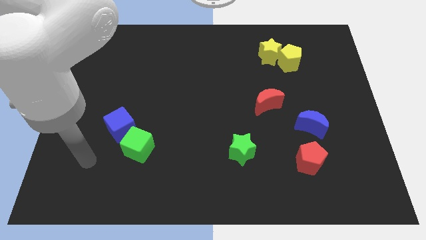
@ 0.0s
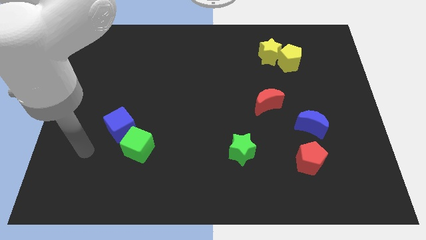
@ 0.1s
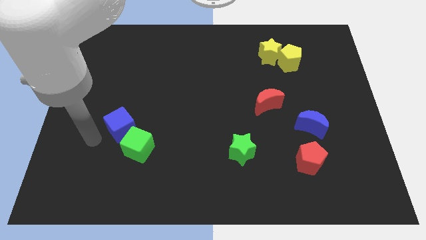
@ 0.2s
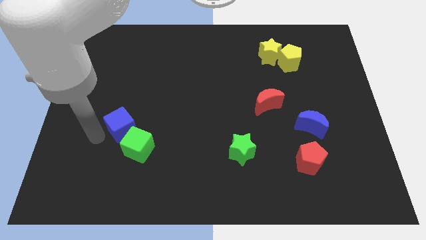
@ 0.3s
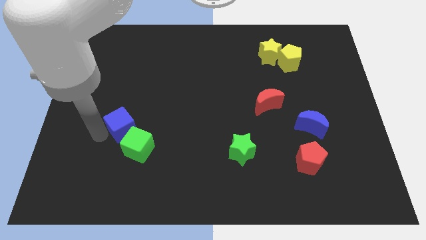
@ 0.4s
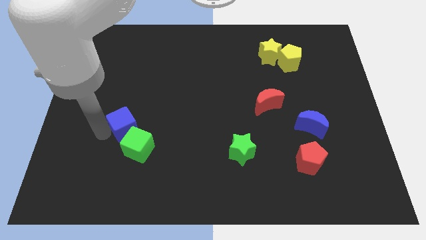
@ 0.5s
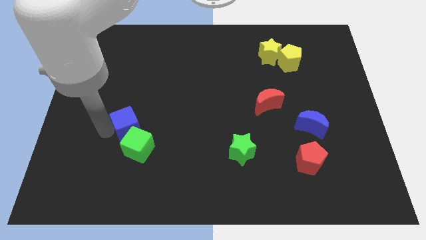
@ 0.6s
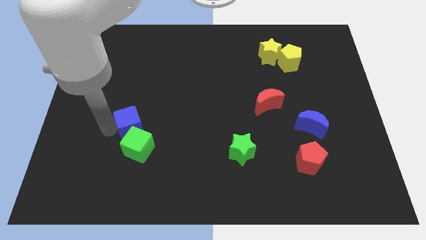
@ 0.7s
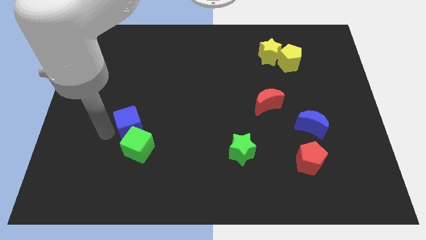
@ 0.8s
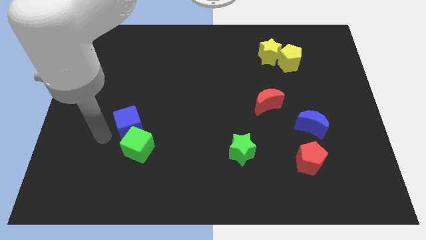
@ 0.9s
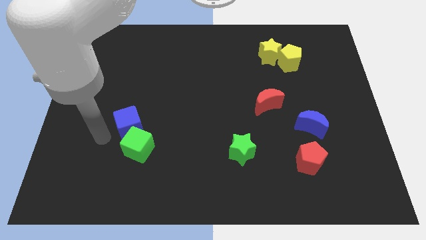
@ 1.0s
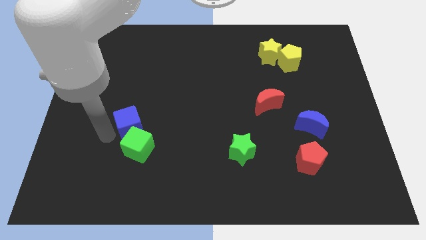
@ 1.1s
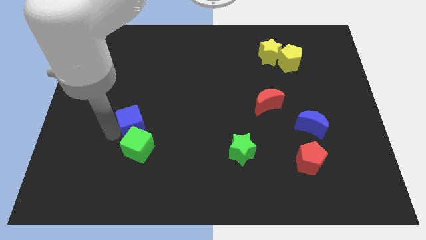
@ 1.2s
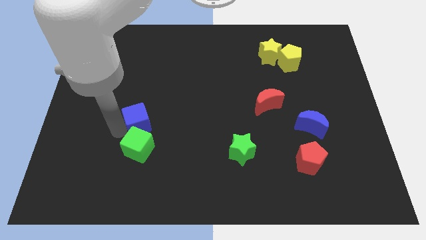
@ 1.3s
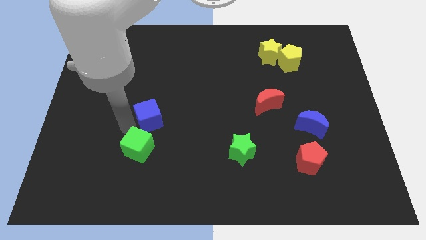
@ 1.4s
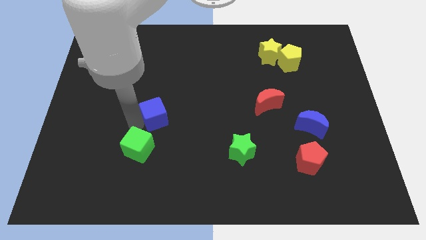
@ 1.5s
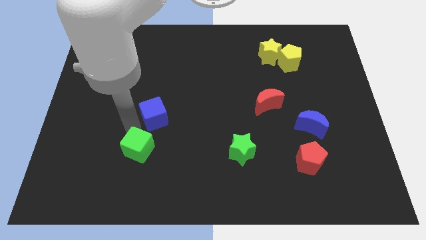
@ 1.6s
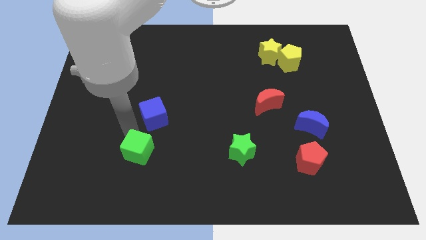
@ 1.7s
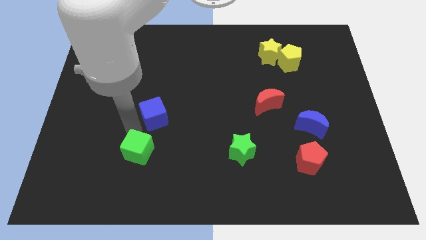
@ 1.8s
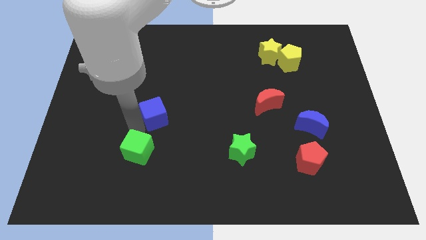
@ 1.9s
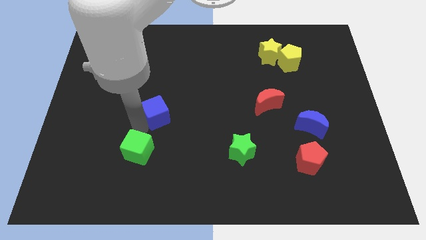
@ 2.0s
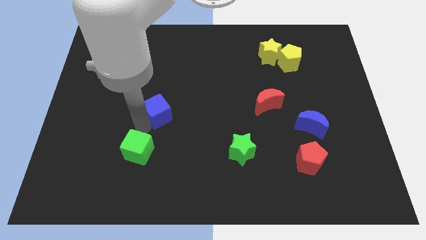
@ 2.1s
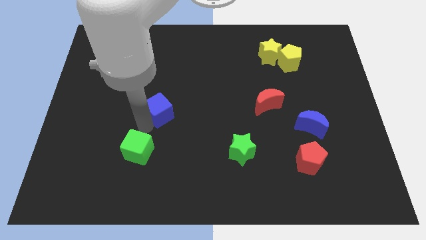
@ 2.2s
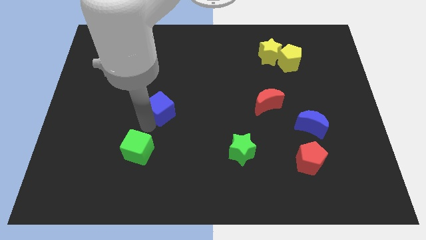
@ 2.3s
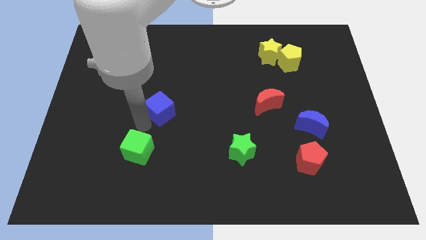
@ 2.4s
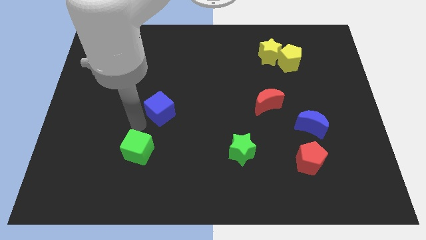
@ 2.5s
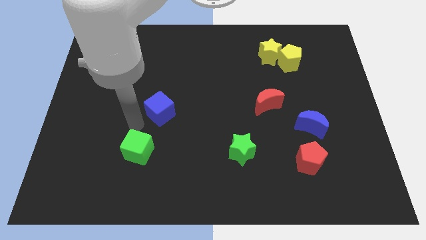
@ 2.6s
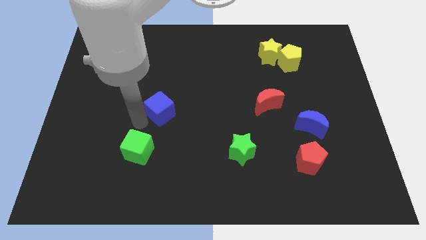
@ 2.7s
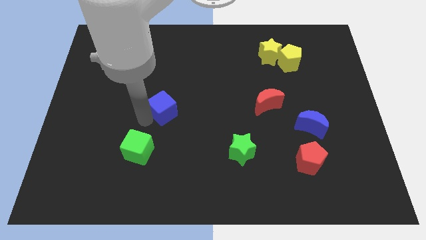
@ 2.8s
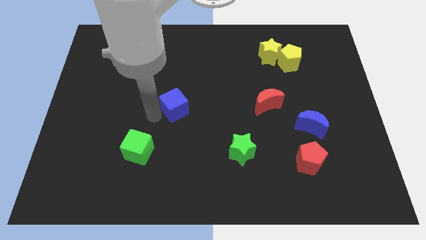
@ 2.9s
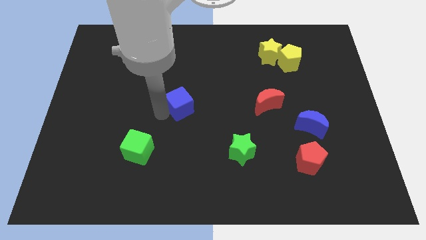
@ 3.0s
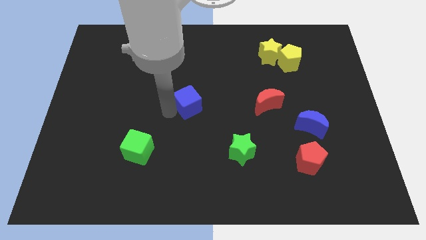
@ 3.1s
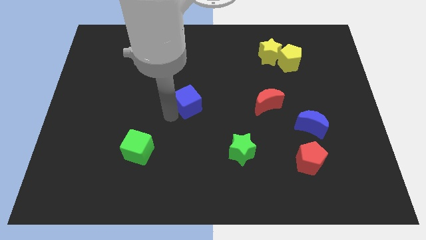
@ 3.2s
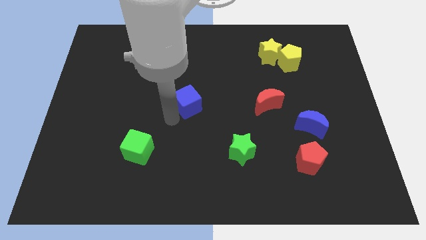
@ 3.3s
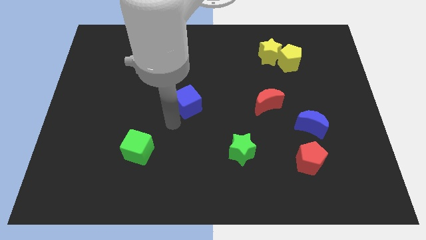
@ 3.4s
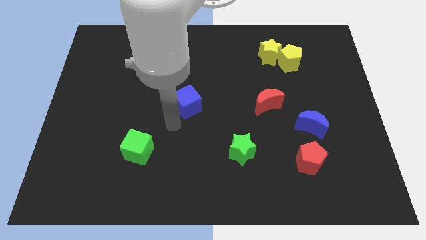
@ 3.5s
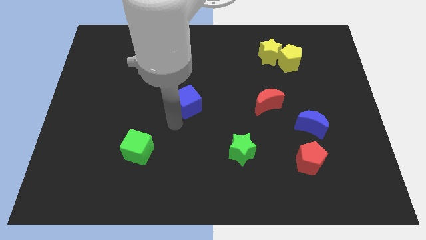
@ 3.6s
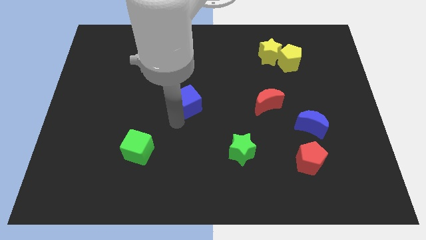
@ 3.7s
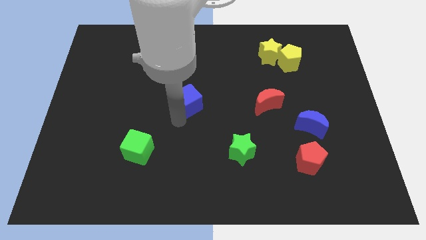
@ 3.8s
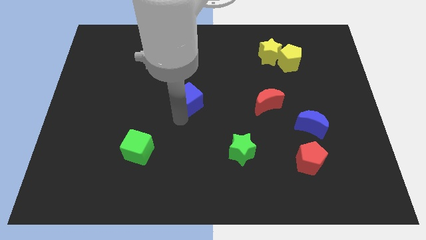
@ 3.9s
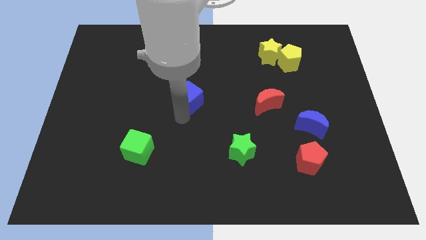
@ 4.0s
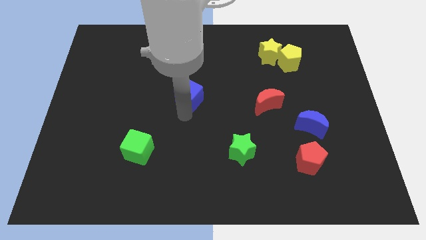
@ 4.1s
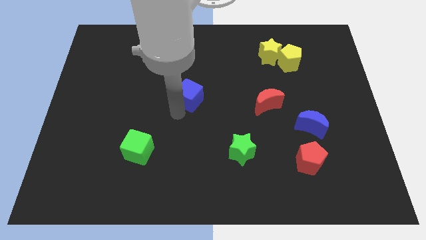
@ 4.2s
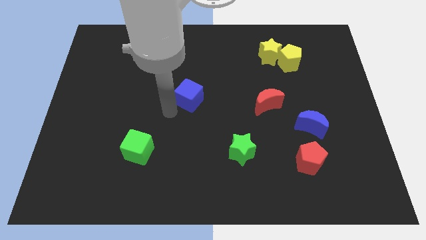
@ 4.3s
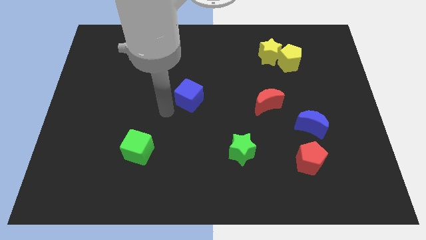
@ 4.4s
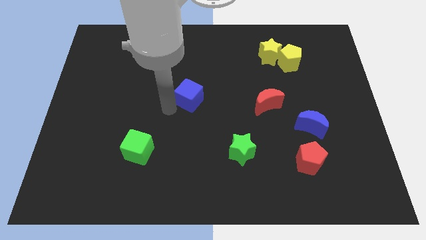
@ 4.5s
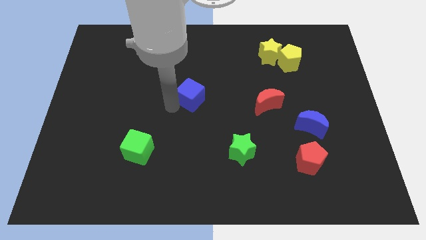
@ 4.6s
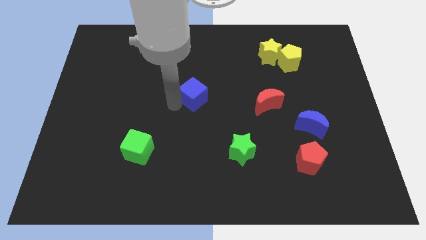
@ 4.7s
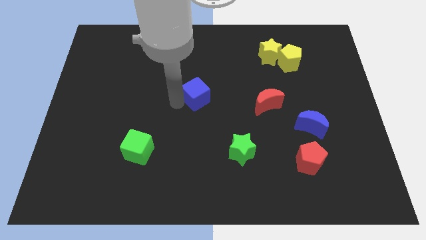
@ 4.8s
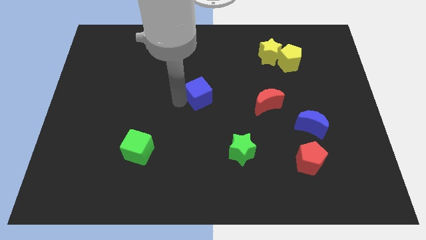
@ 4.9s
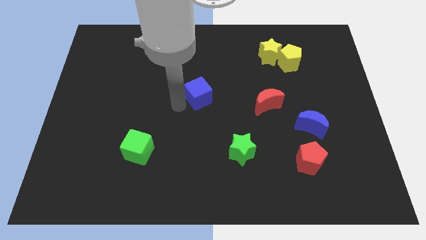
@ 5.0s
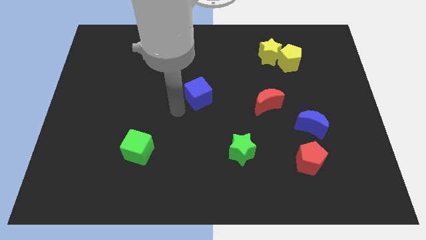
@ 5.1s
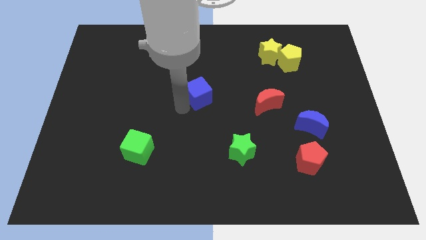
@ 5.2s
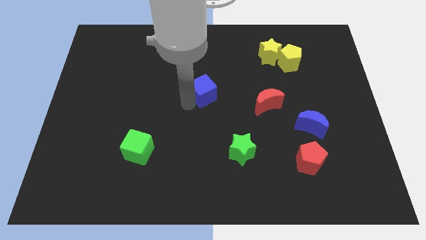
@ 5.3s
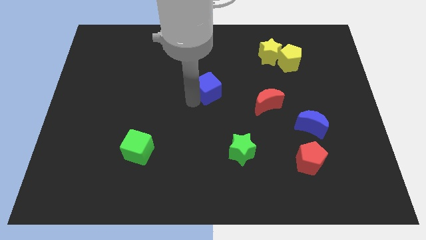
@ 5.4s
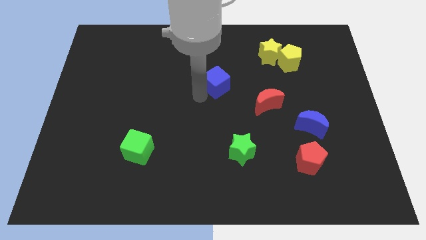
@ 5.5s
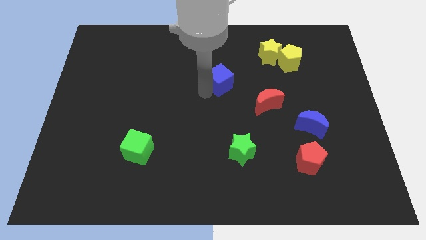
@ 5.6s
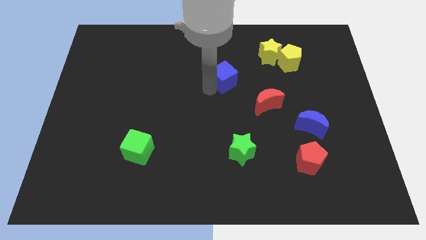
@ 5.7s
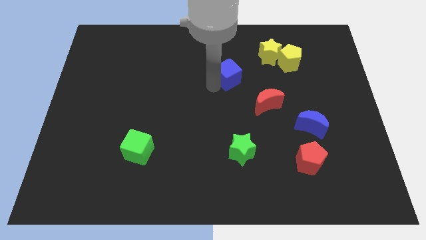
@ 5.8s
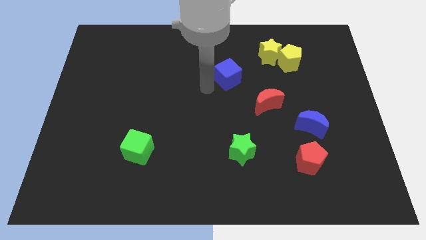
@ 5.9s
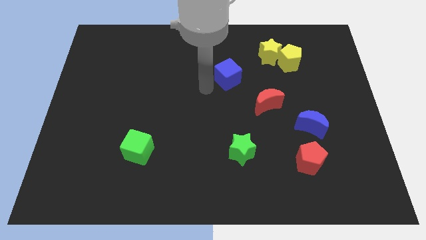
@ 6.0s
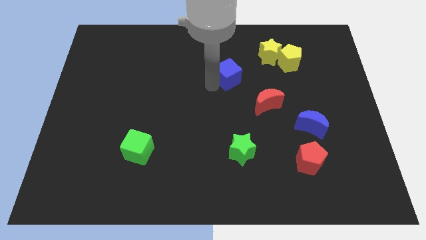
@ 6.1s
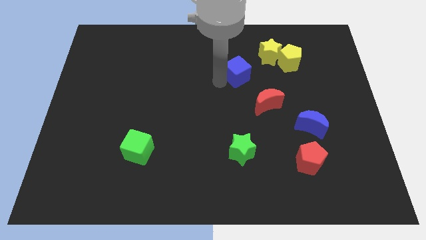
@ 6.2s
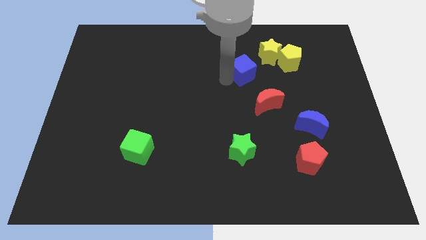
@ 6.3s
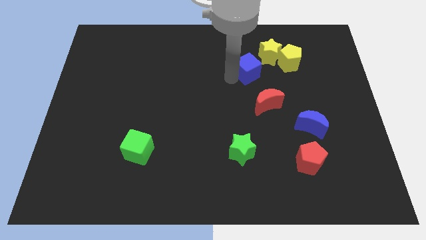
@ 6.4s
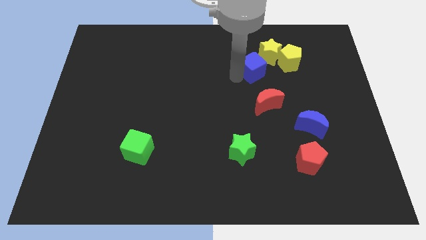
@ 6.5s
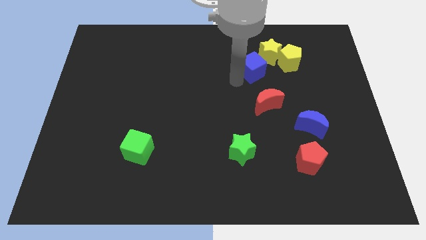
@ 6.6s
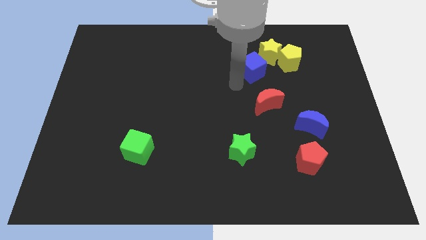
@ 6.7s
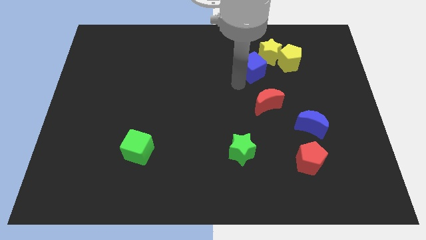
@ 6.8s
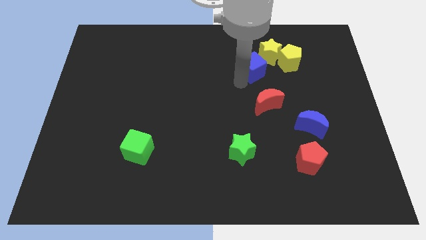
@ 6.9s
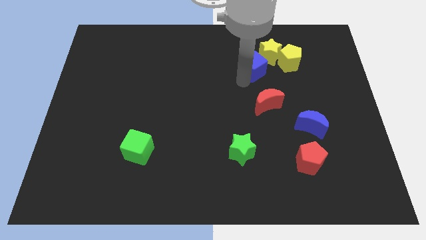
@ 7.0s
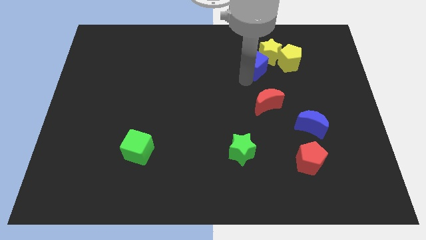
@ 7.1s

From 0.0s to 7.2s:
push the blue cube next to the yellow star
